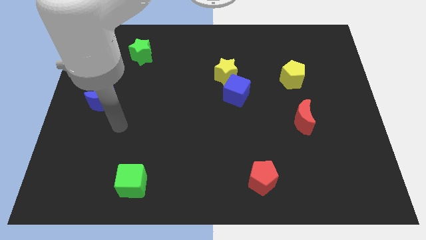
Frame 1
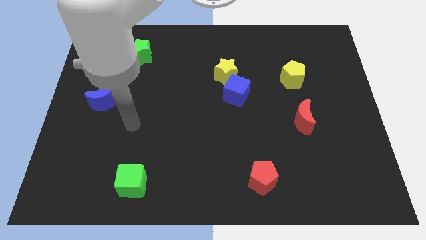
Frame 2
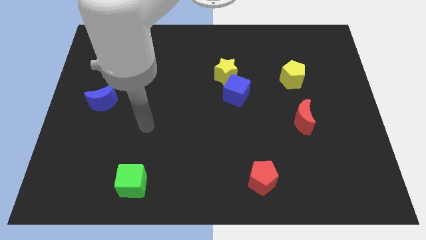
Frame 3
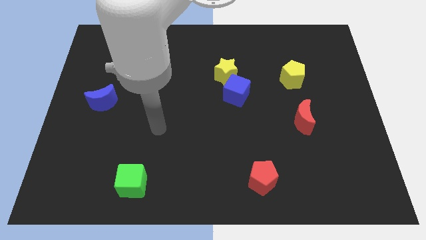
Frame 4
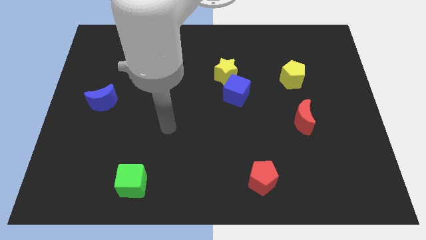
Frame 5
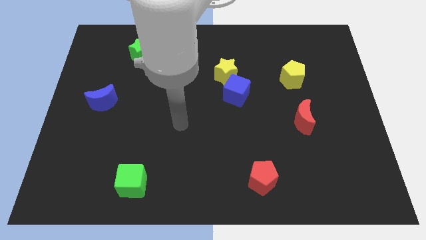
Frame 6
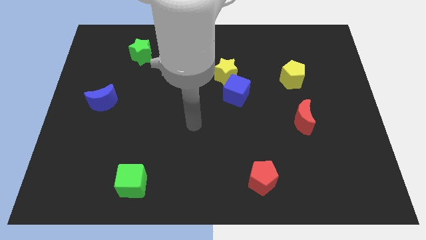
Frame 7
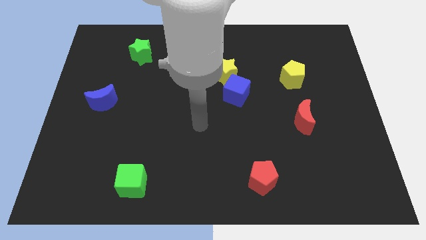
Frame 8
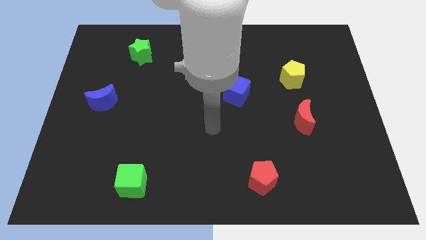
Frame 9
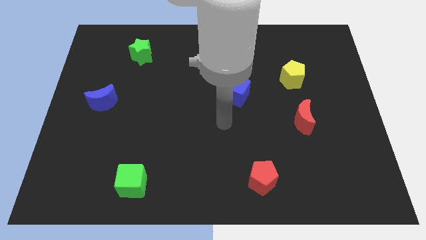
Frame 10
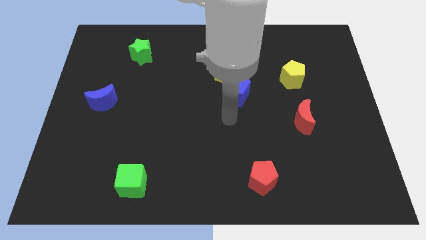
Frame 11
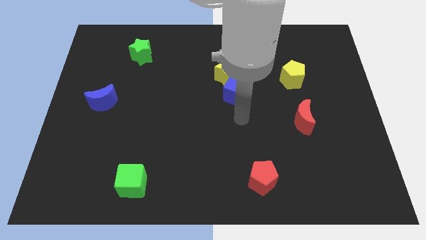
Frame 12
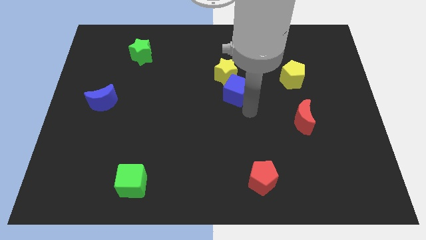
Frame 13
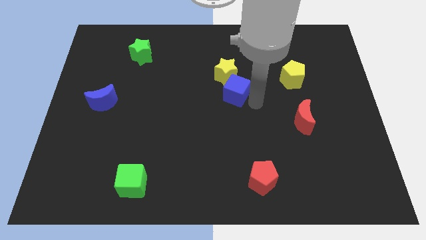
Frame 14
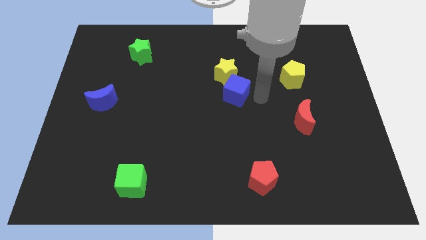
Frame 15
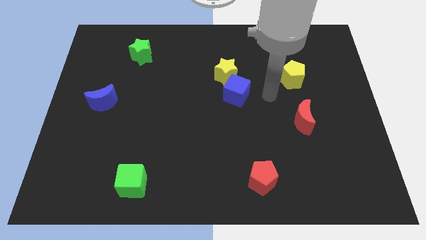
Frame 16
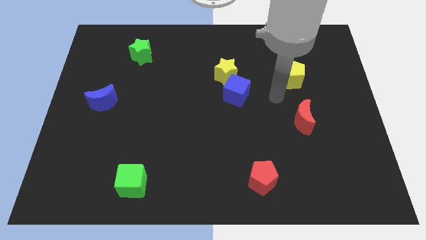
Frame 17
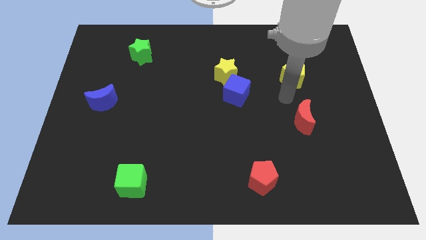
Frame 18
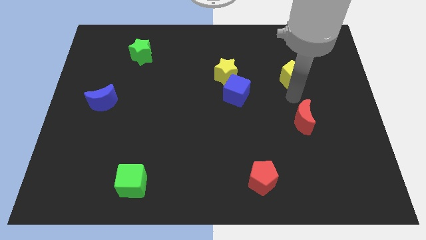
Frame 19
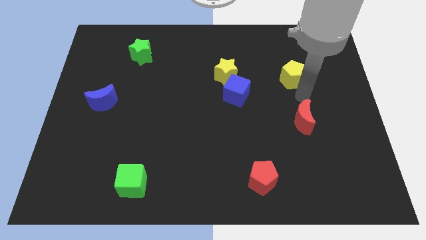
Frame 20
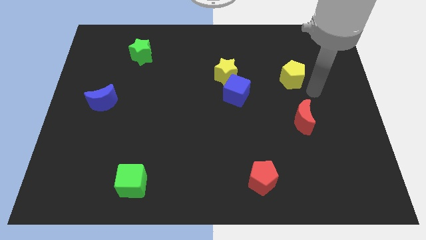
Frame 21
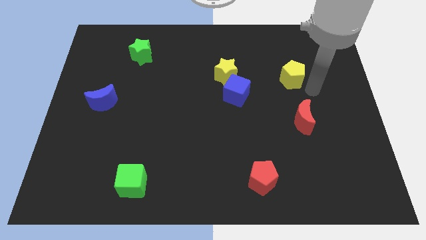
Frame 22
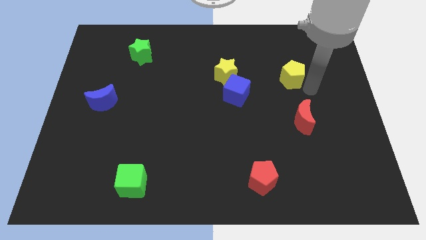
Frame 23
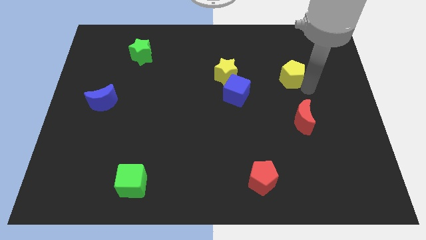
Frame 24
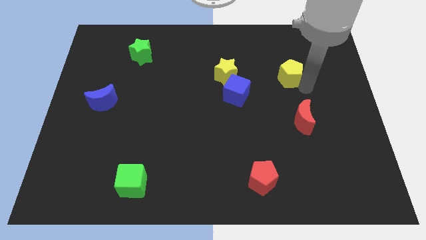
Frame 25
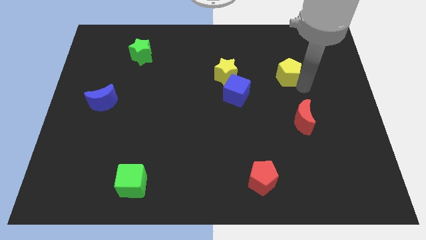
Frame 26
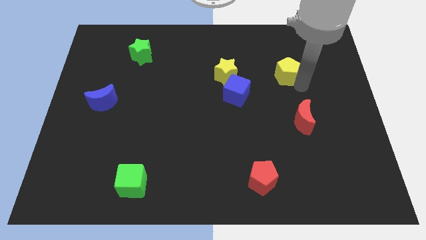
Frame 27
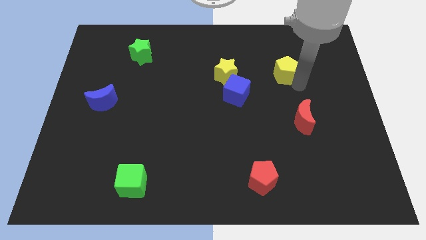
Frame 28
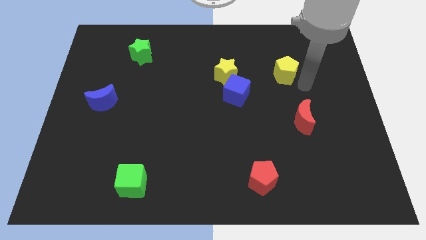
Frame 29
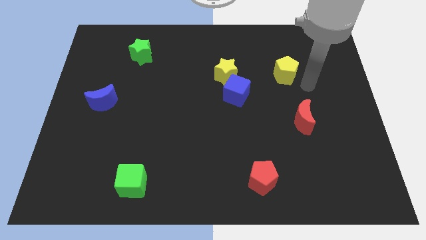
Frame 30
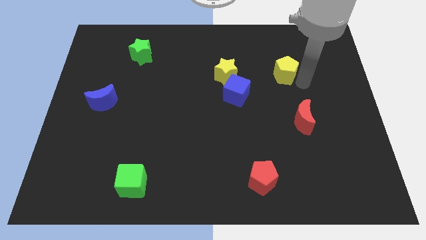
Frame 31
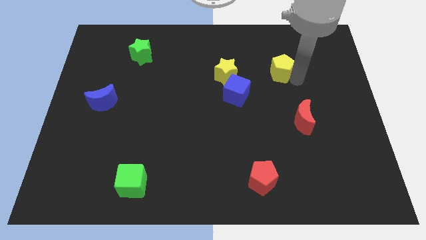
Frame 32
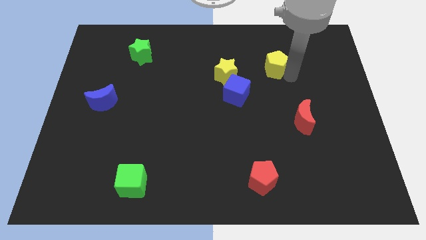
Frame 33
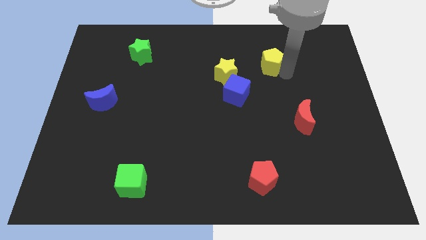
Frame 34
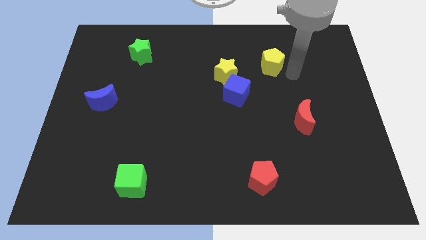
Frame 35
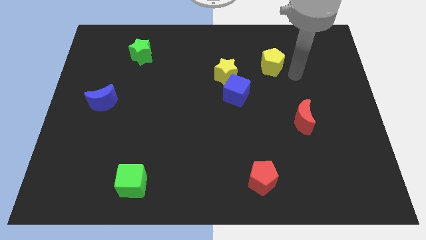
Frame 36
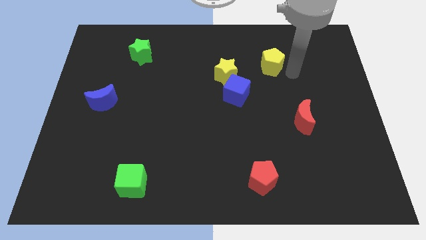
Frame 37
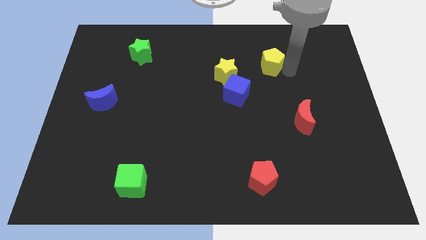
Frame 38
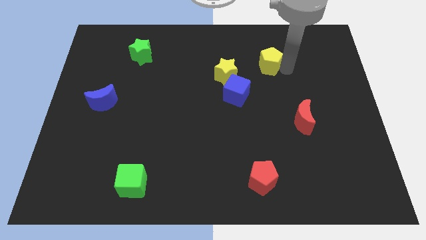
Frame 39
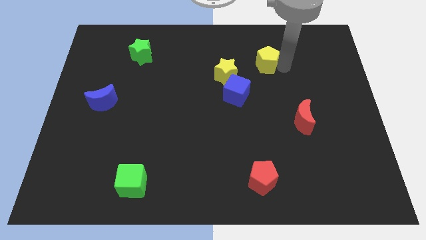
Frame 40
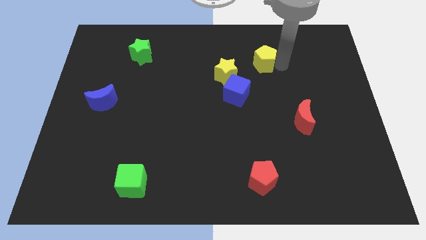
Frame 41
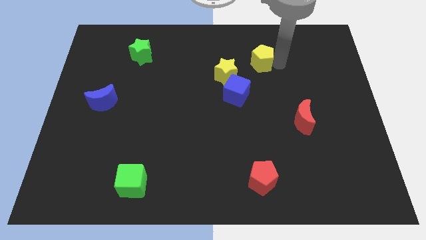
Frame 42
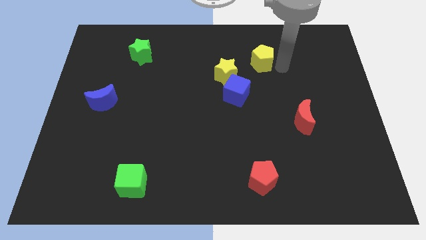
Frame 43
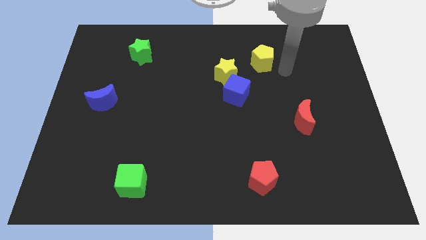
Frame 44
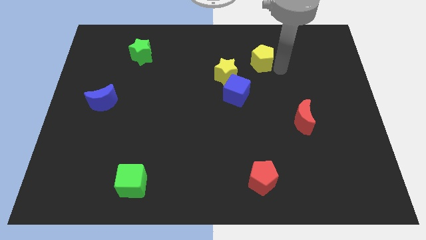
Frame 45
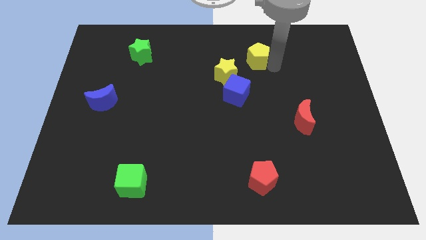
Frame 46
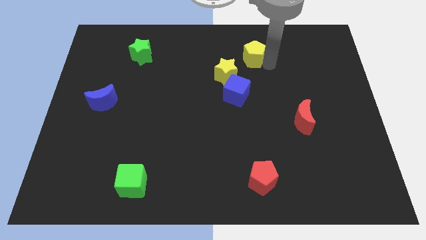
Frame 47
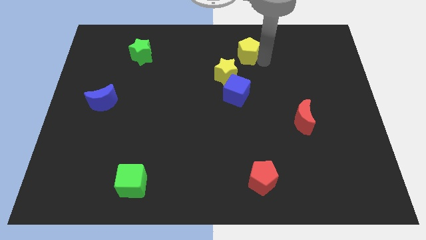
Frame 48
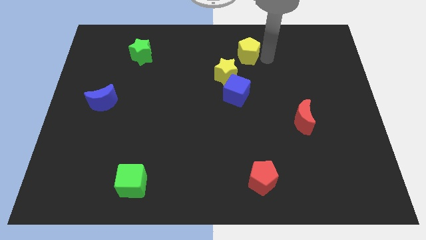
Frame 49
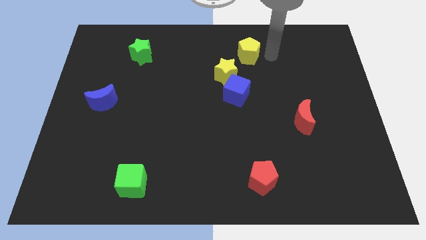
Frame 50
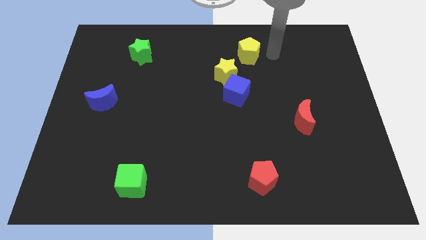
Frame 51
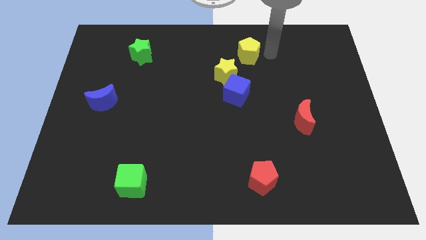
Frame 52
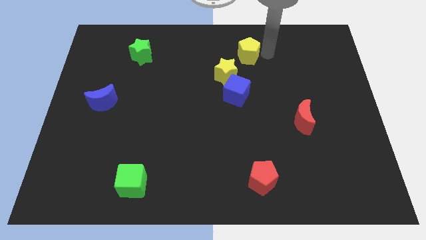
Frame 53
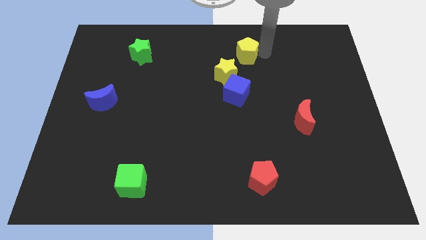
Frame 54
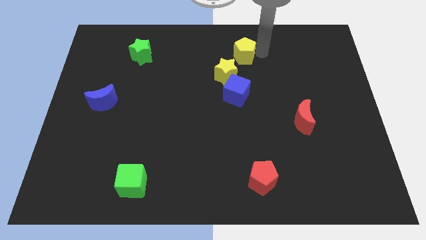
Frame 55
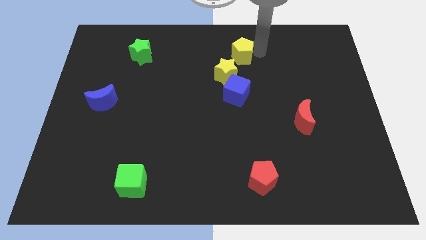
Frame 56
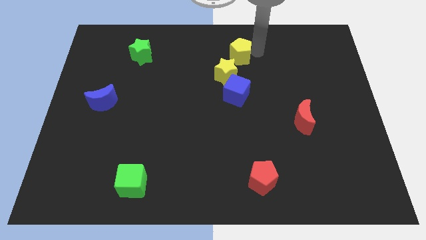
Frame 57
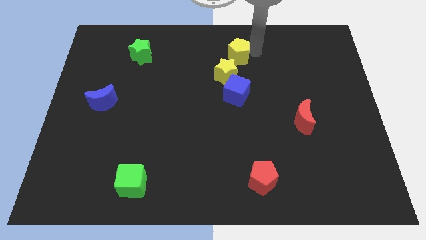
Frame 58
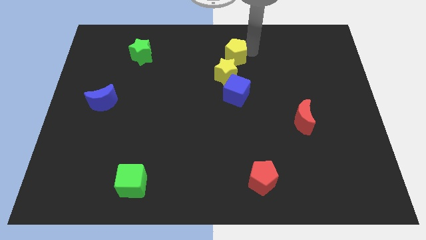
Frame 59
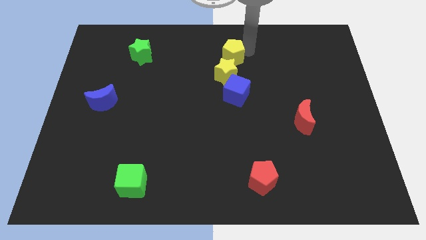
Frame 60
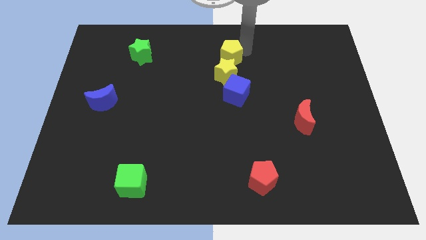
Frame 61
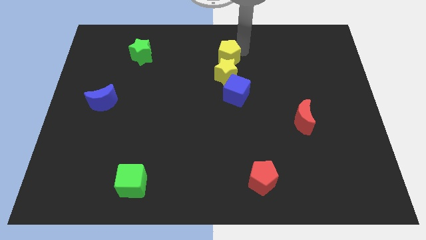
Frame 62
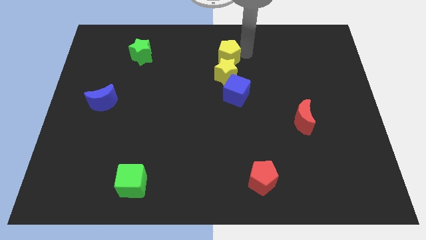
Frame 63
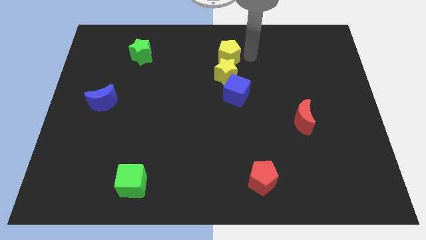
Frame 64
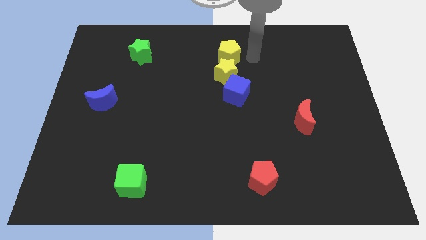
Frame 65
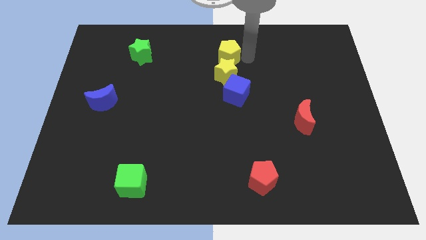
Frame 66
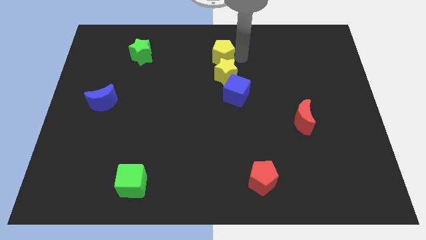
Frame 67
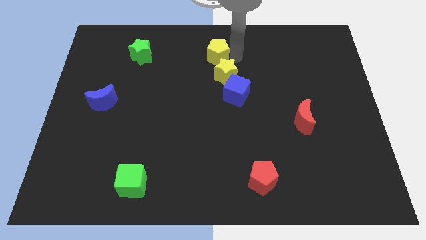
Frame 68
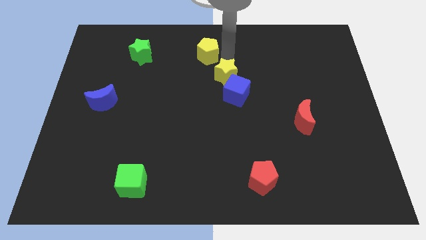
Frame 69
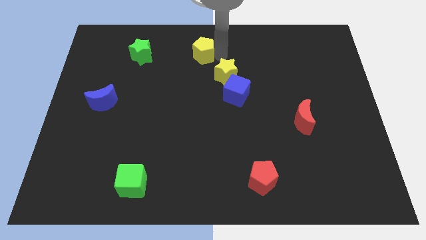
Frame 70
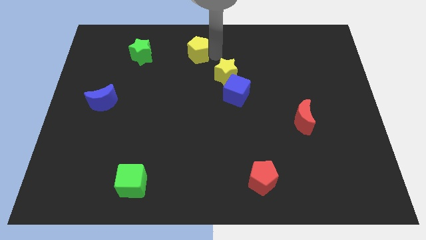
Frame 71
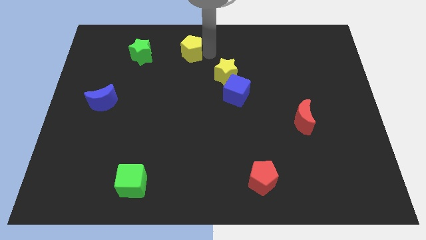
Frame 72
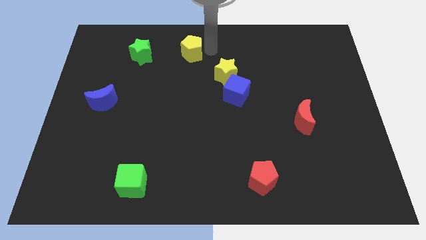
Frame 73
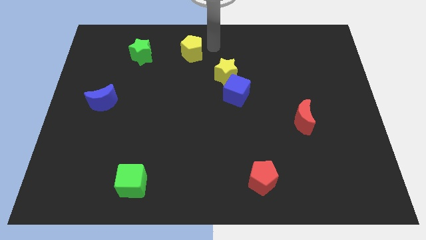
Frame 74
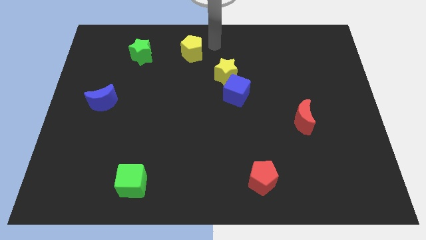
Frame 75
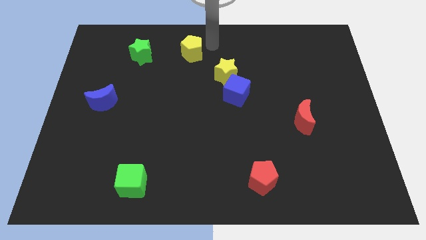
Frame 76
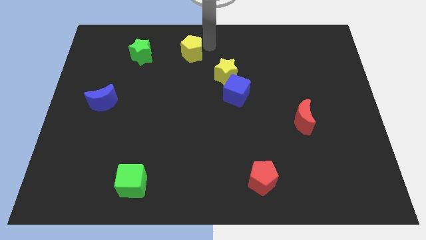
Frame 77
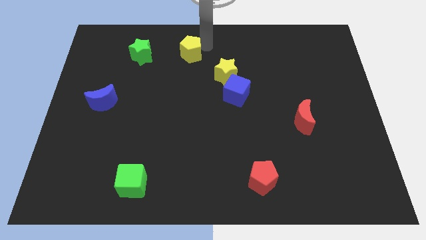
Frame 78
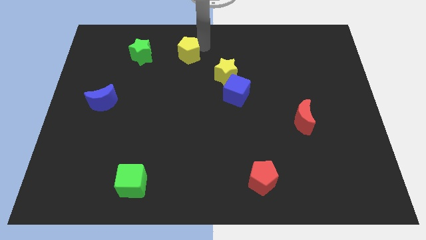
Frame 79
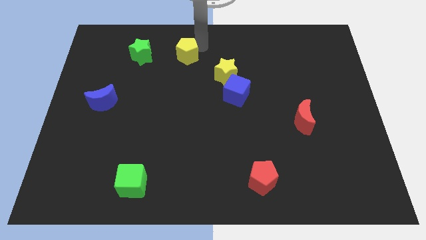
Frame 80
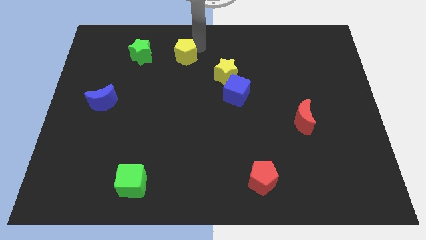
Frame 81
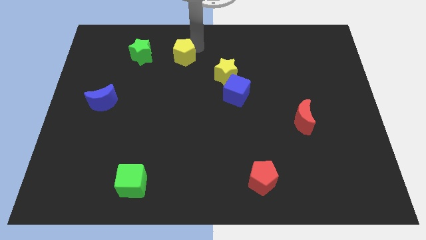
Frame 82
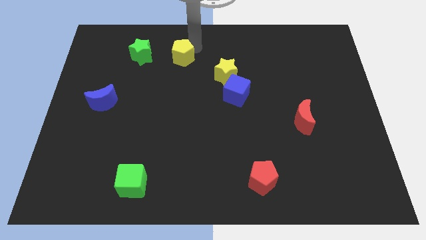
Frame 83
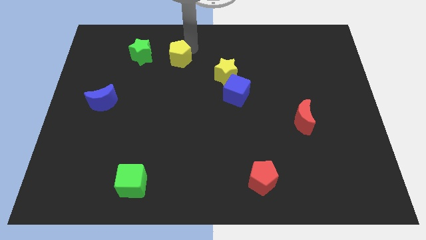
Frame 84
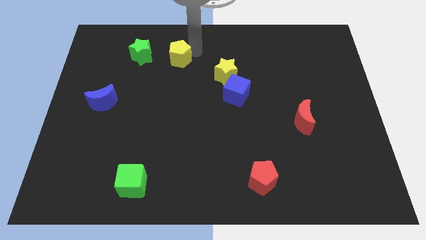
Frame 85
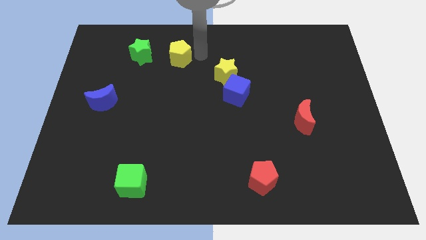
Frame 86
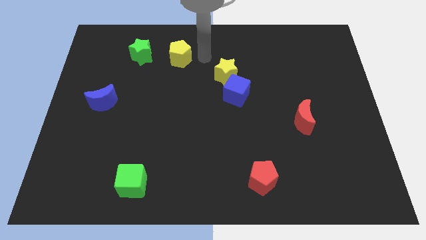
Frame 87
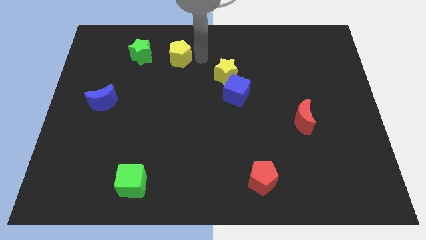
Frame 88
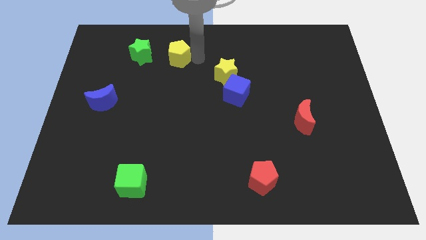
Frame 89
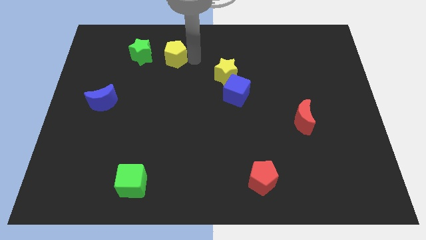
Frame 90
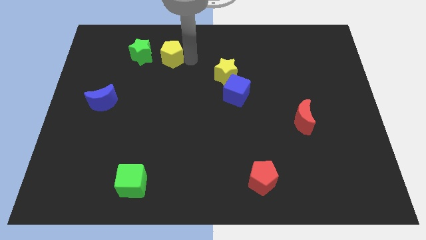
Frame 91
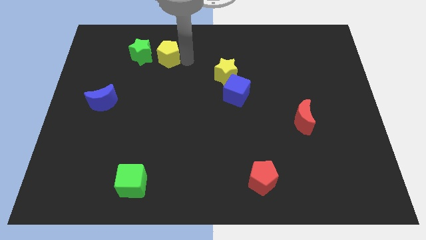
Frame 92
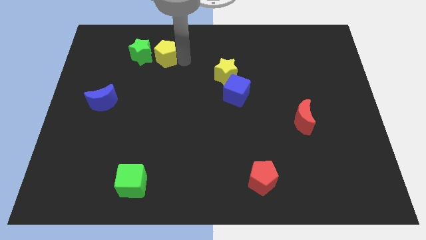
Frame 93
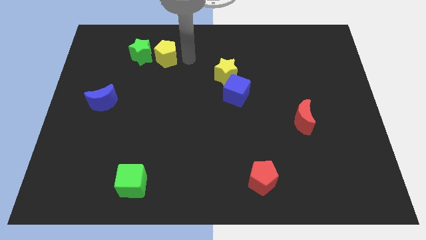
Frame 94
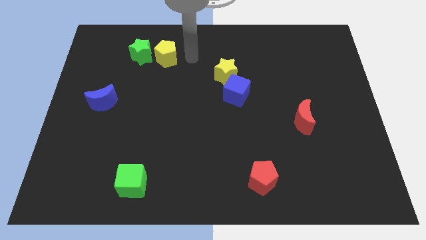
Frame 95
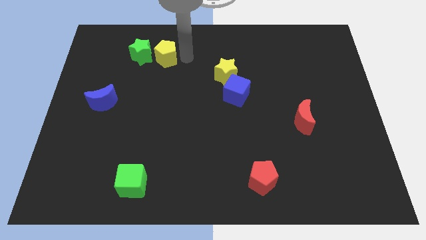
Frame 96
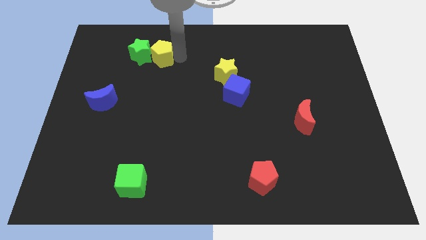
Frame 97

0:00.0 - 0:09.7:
move the yellow pentagon to the green star
